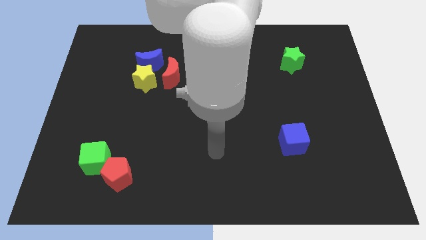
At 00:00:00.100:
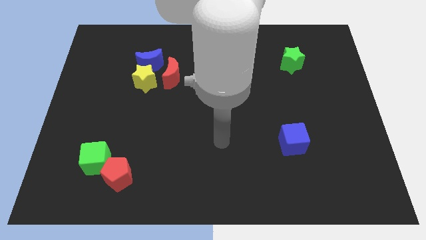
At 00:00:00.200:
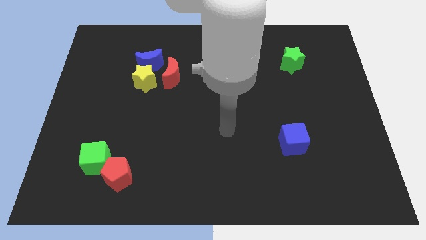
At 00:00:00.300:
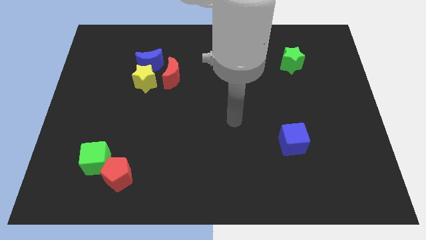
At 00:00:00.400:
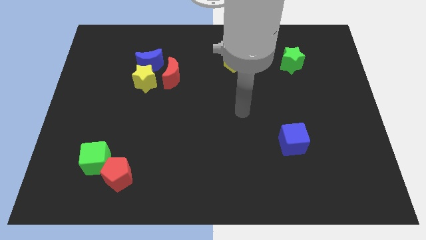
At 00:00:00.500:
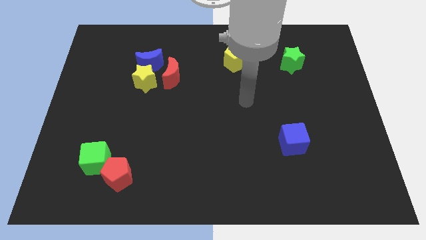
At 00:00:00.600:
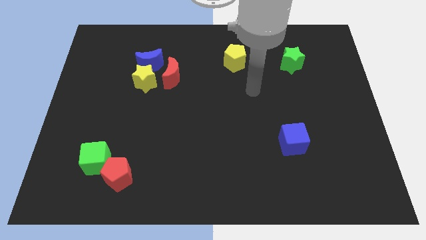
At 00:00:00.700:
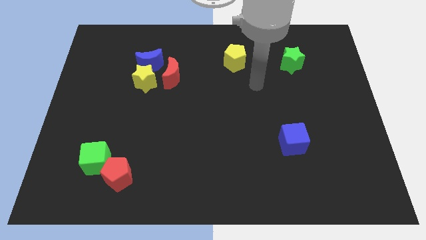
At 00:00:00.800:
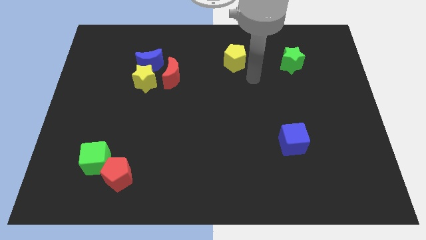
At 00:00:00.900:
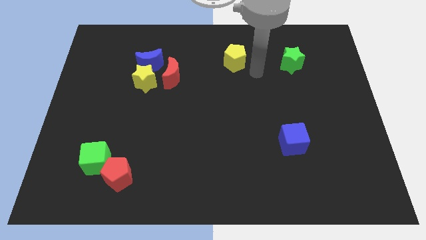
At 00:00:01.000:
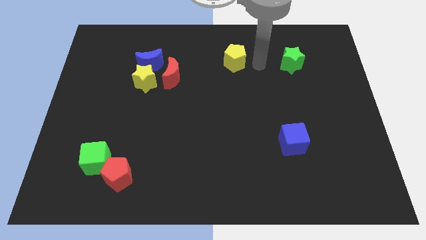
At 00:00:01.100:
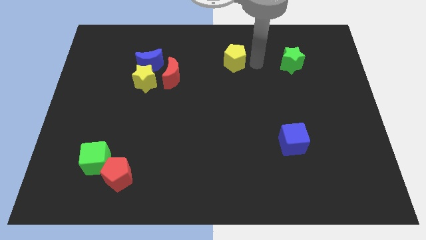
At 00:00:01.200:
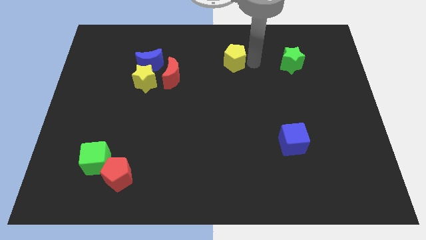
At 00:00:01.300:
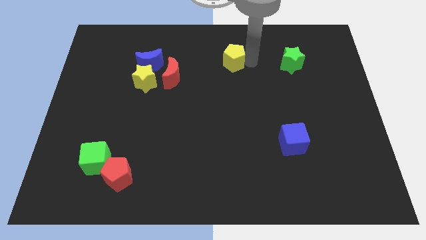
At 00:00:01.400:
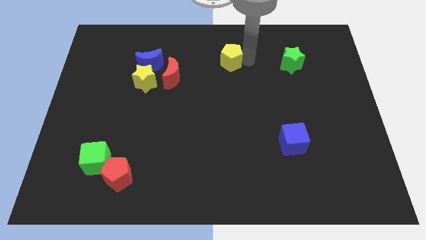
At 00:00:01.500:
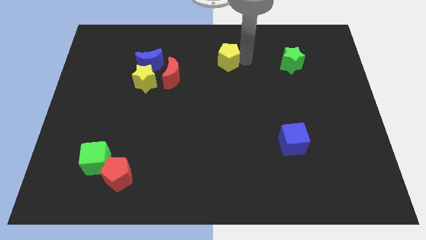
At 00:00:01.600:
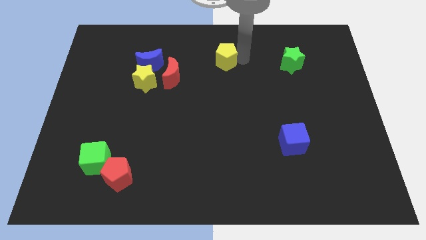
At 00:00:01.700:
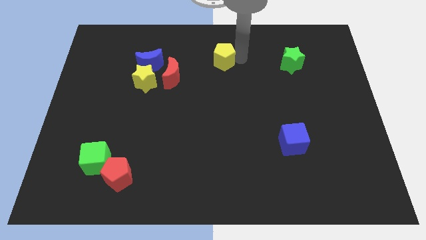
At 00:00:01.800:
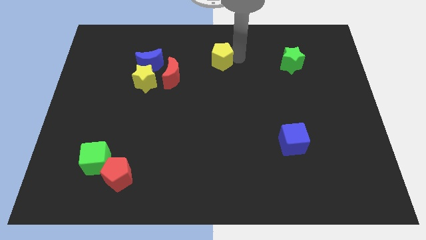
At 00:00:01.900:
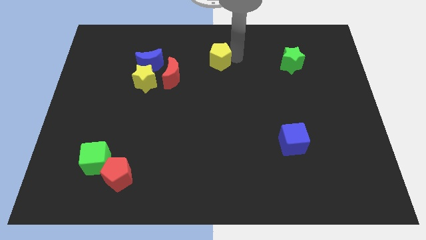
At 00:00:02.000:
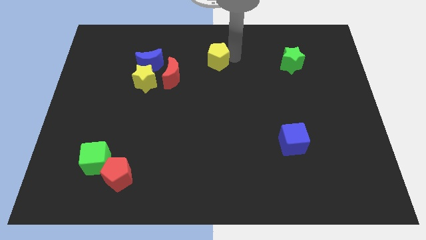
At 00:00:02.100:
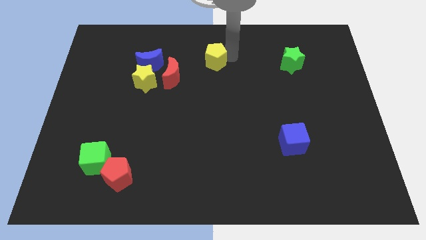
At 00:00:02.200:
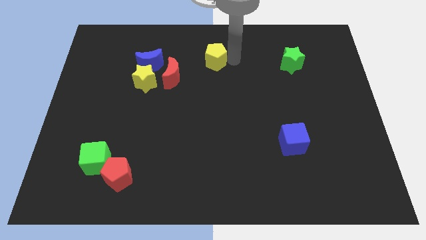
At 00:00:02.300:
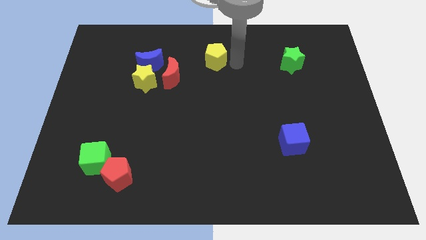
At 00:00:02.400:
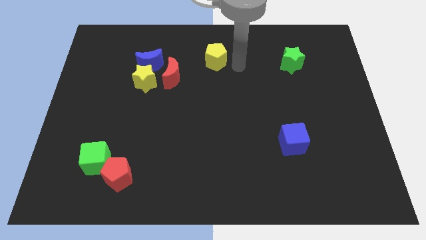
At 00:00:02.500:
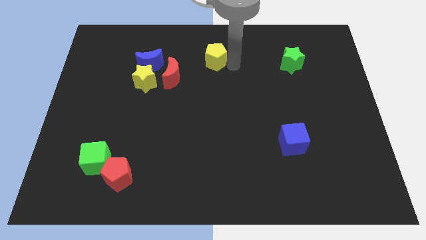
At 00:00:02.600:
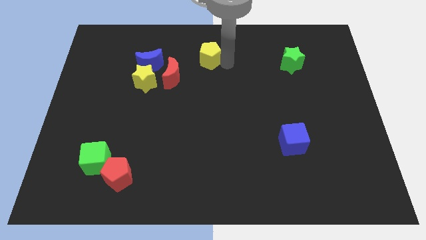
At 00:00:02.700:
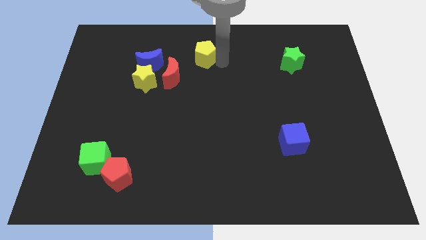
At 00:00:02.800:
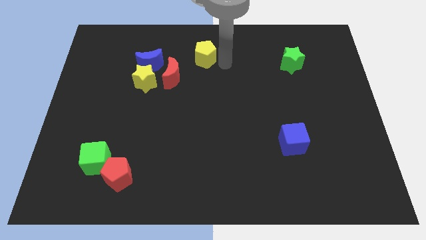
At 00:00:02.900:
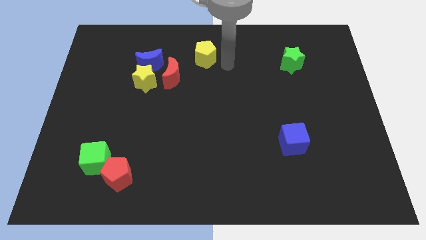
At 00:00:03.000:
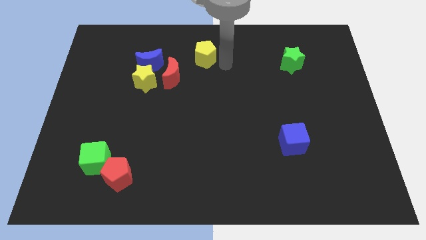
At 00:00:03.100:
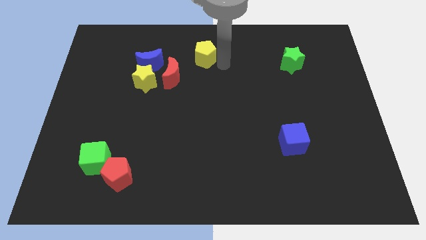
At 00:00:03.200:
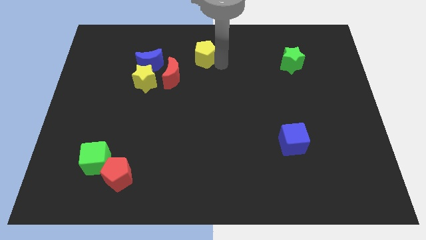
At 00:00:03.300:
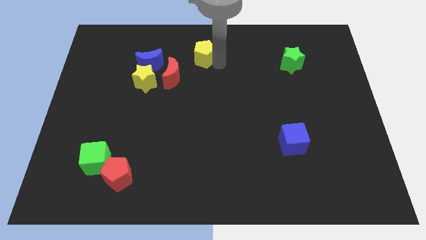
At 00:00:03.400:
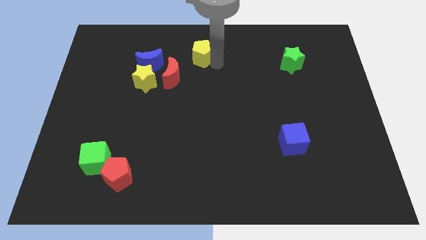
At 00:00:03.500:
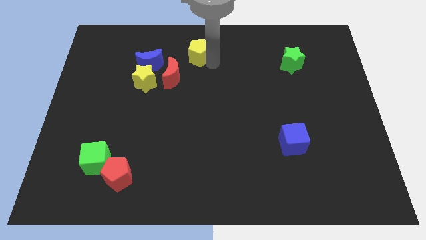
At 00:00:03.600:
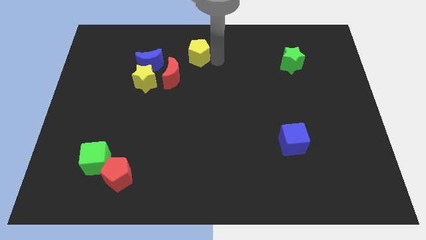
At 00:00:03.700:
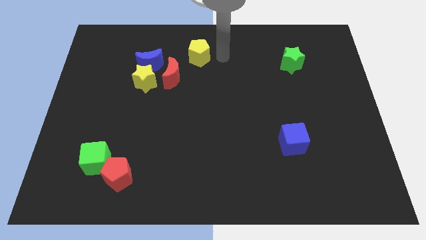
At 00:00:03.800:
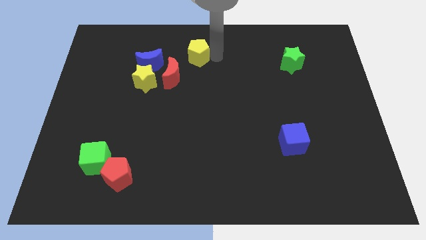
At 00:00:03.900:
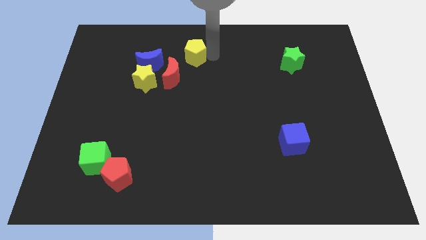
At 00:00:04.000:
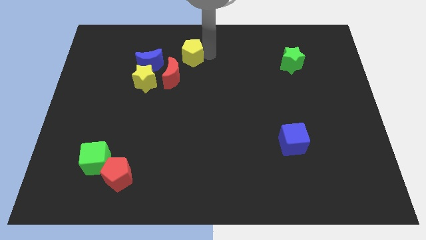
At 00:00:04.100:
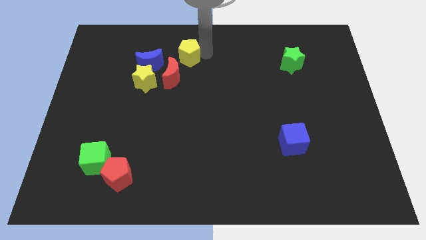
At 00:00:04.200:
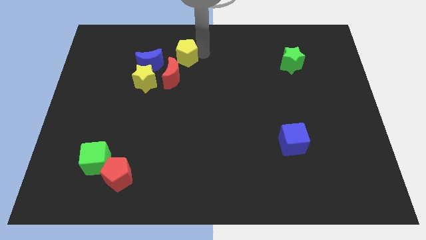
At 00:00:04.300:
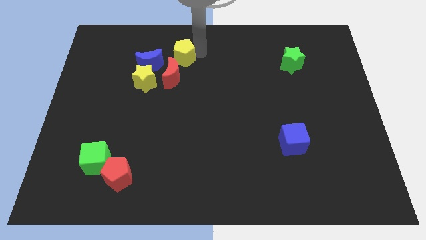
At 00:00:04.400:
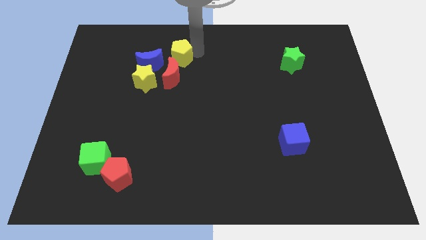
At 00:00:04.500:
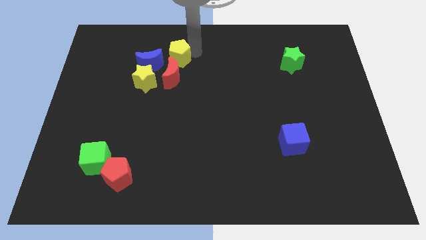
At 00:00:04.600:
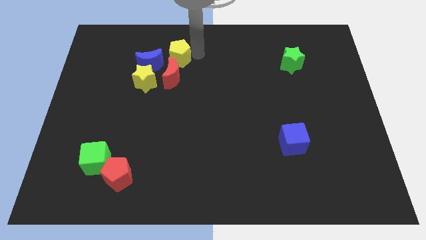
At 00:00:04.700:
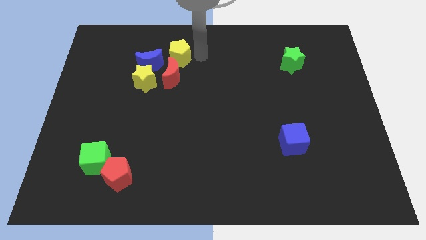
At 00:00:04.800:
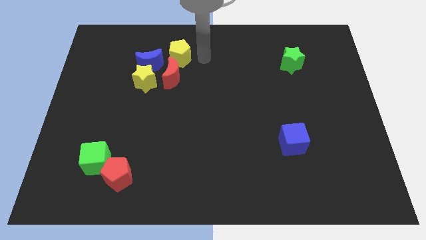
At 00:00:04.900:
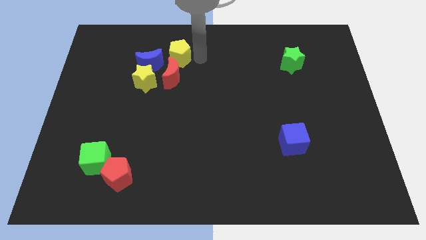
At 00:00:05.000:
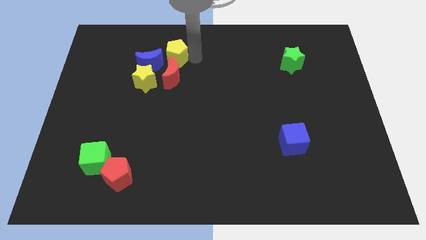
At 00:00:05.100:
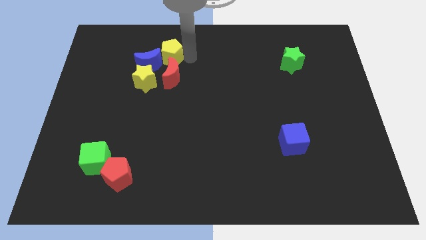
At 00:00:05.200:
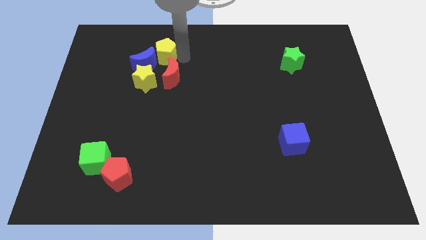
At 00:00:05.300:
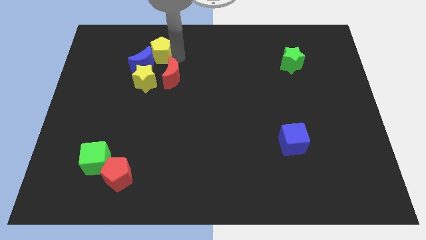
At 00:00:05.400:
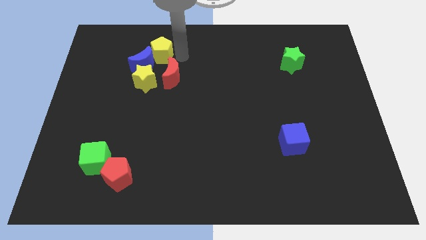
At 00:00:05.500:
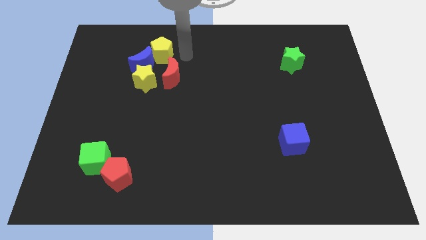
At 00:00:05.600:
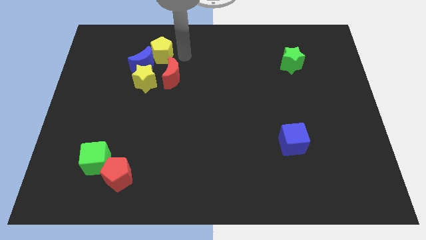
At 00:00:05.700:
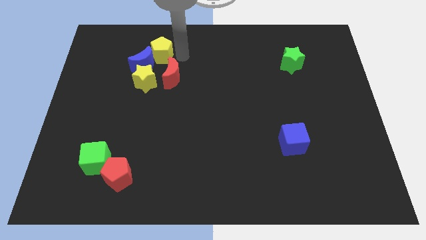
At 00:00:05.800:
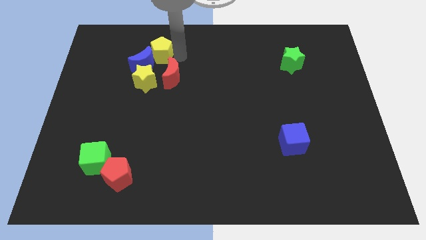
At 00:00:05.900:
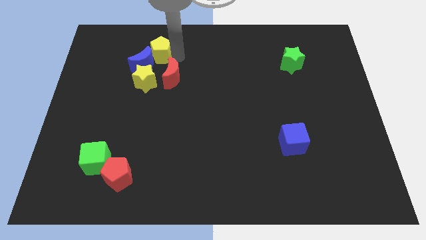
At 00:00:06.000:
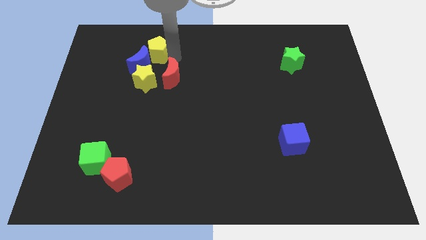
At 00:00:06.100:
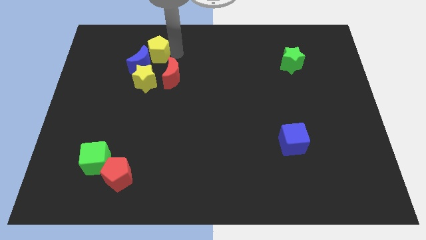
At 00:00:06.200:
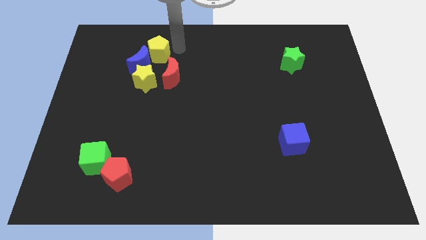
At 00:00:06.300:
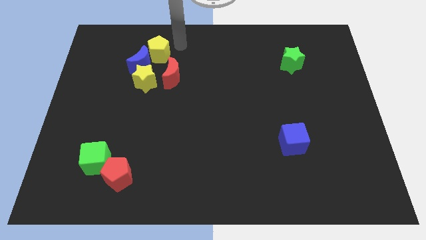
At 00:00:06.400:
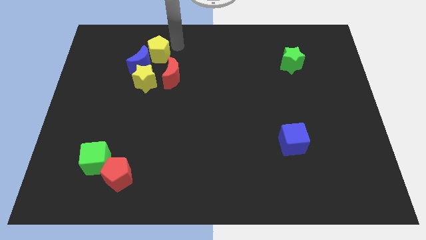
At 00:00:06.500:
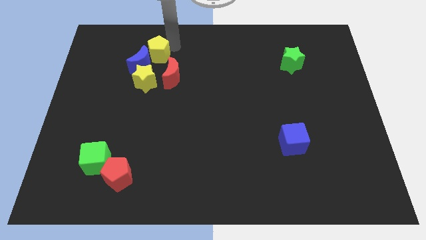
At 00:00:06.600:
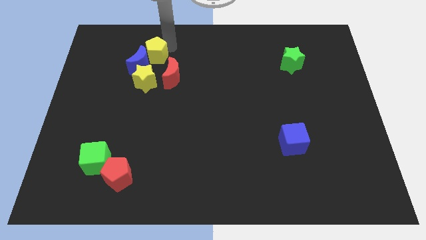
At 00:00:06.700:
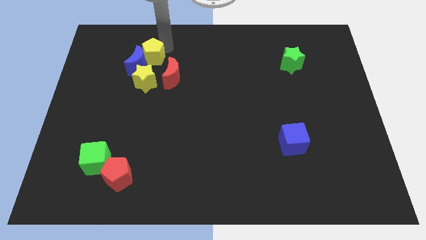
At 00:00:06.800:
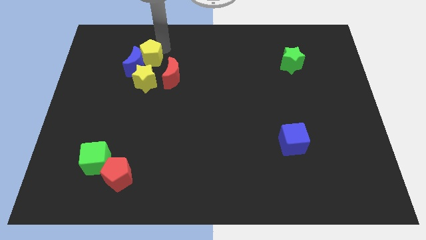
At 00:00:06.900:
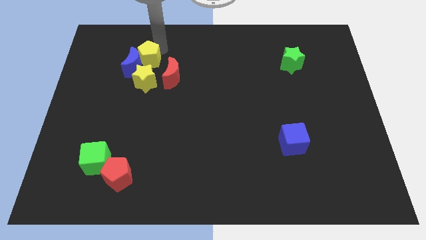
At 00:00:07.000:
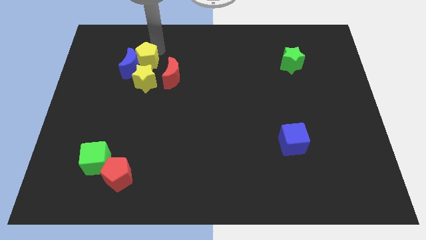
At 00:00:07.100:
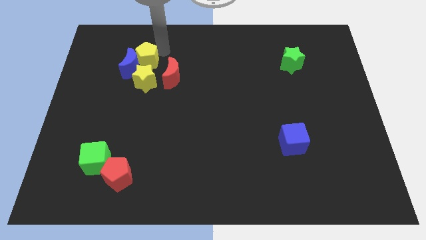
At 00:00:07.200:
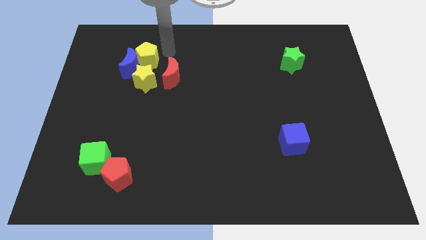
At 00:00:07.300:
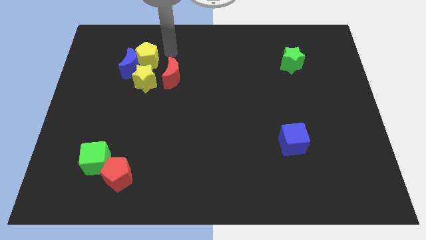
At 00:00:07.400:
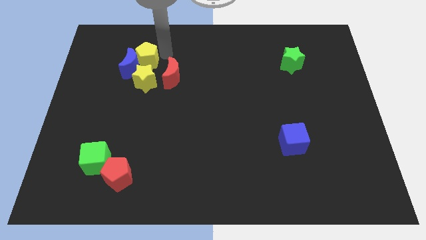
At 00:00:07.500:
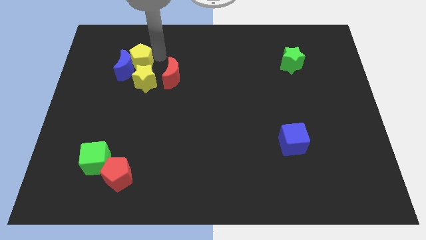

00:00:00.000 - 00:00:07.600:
push the yellow pentagon to the top left of the yellow star
